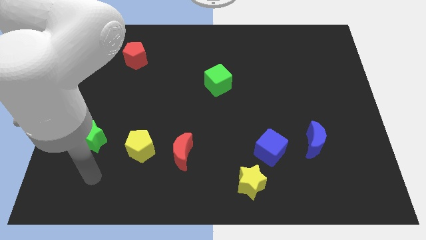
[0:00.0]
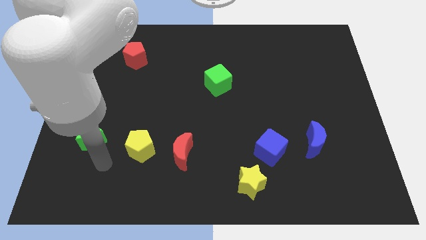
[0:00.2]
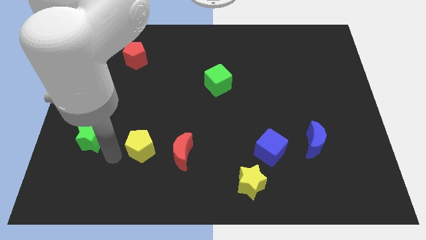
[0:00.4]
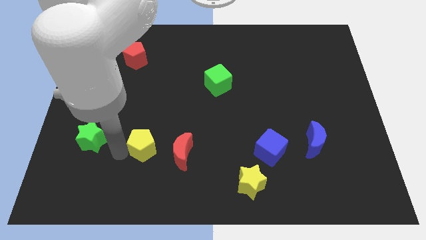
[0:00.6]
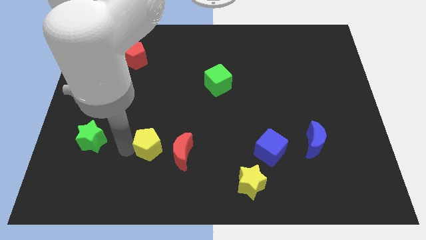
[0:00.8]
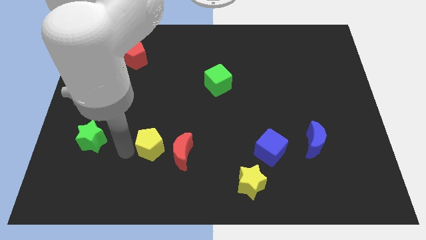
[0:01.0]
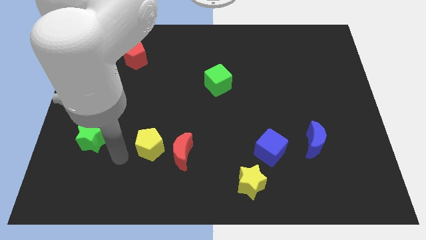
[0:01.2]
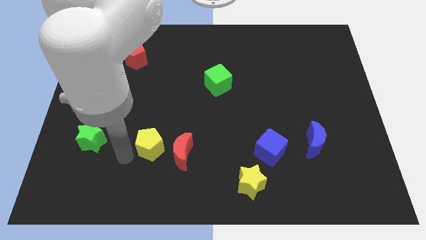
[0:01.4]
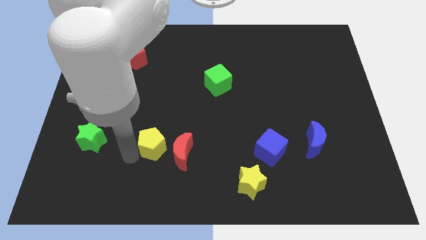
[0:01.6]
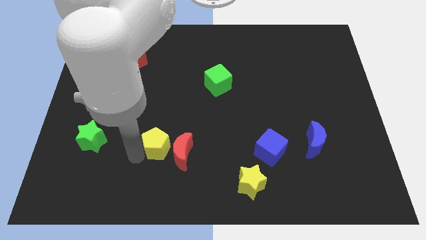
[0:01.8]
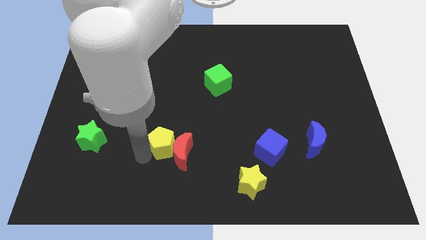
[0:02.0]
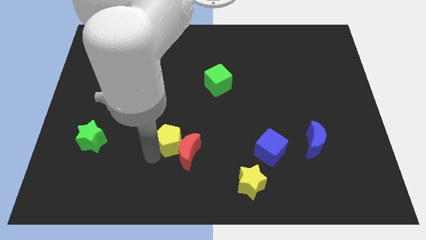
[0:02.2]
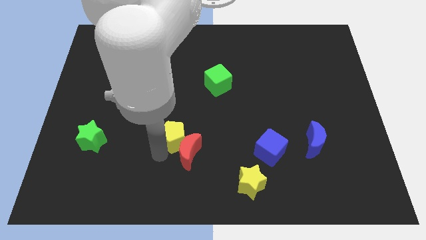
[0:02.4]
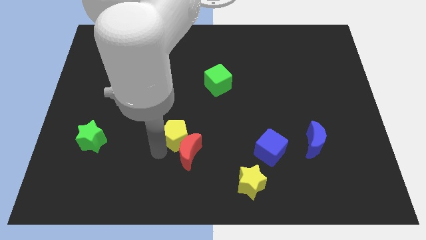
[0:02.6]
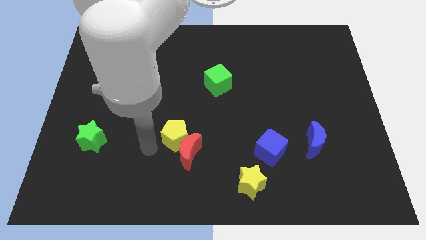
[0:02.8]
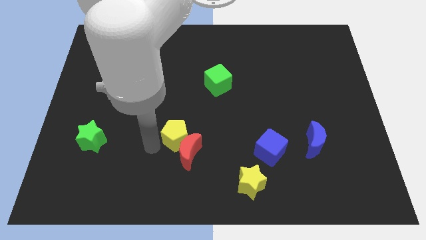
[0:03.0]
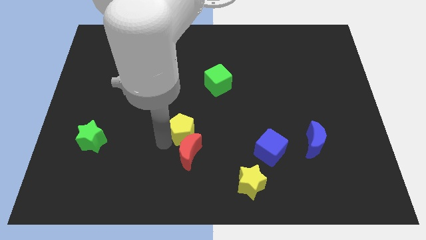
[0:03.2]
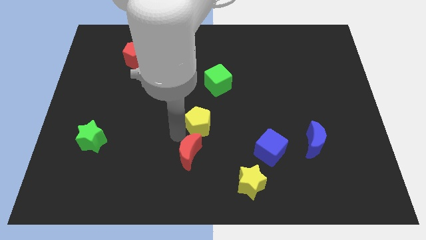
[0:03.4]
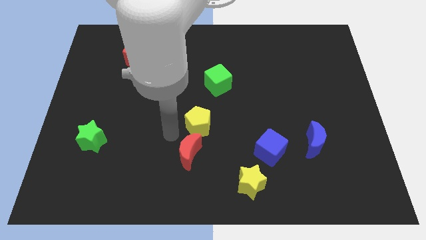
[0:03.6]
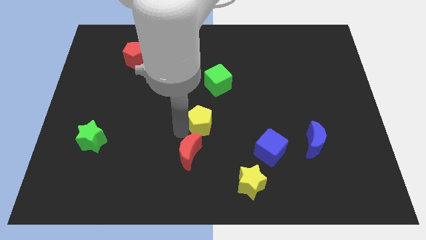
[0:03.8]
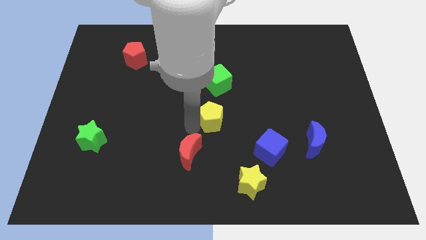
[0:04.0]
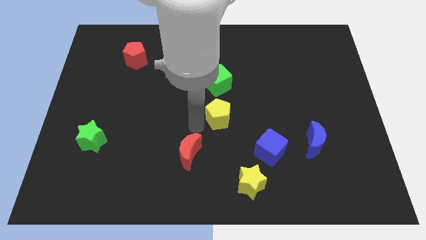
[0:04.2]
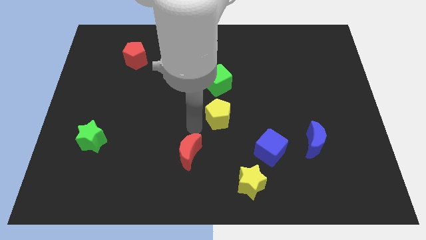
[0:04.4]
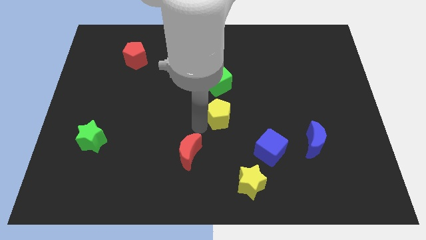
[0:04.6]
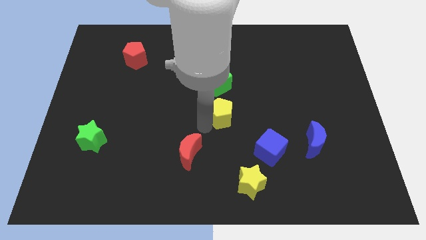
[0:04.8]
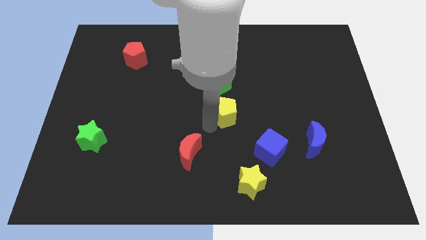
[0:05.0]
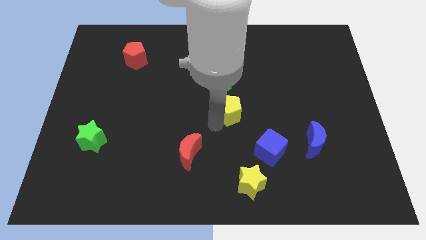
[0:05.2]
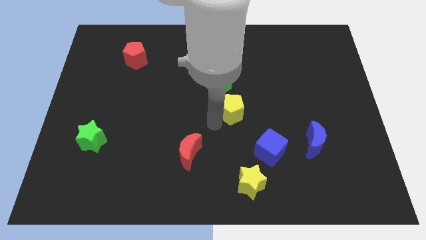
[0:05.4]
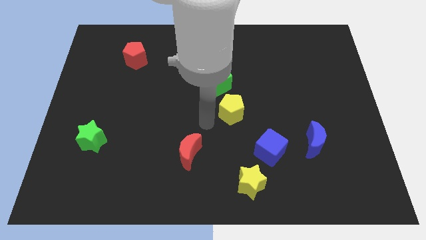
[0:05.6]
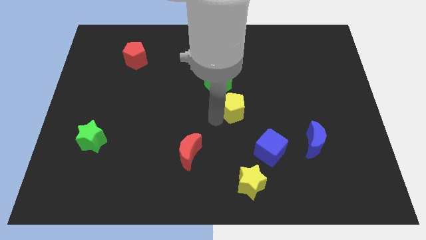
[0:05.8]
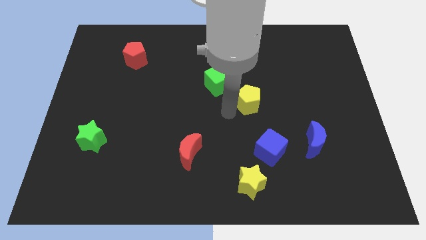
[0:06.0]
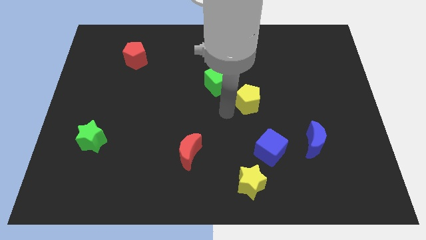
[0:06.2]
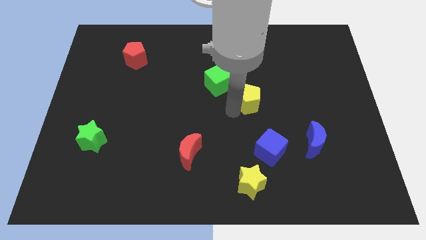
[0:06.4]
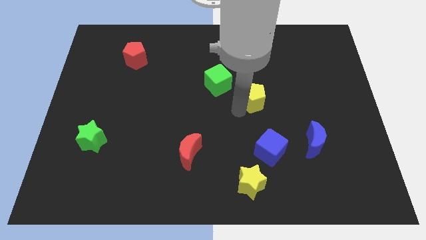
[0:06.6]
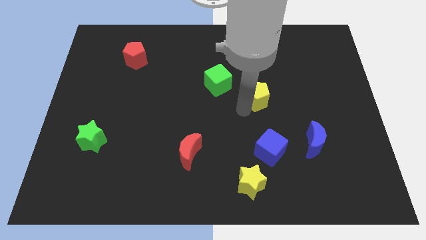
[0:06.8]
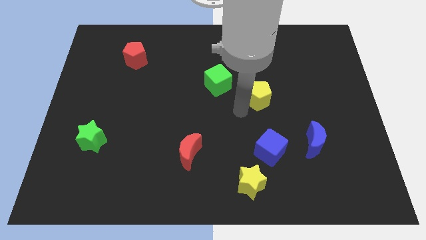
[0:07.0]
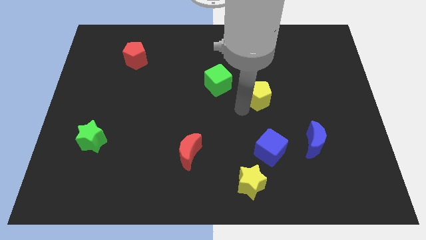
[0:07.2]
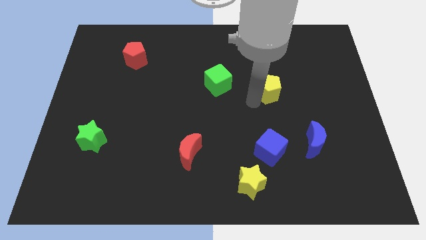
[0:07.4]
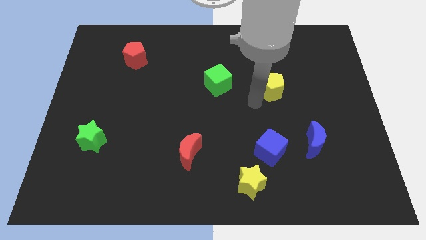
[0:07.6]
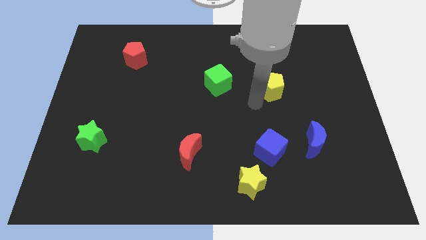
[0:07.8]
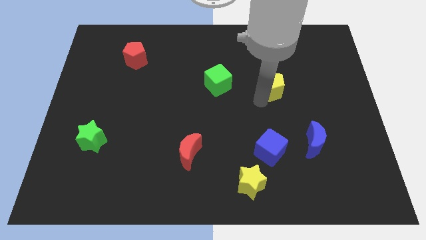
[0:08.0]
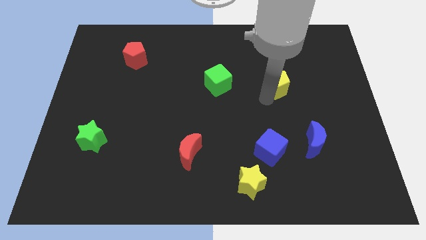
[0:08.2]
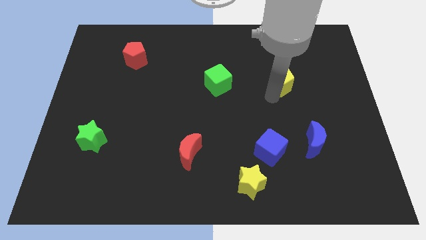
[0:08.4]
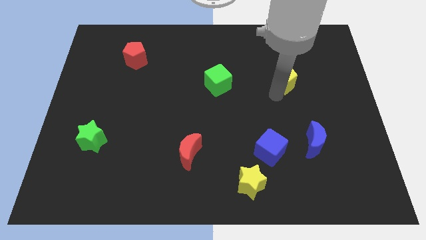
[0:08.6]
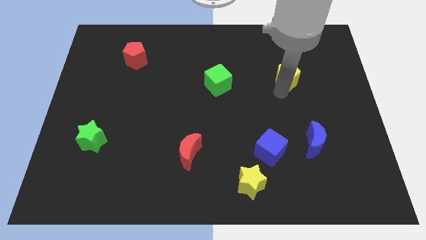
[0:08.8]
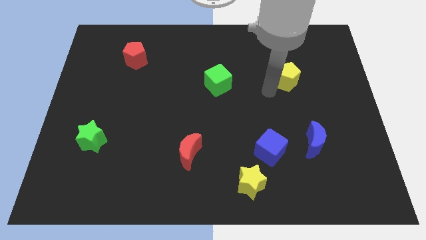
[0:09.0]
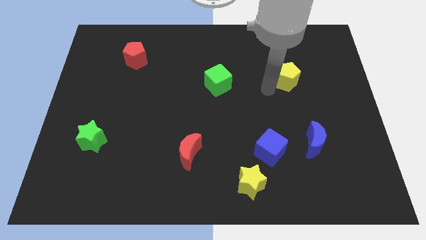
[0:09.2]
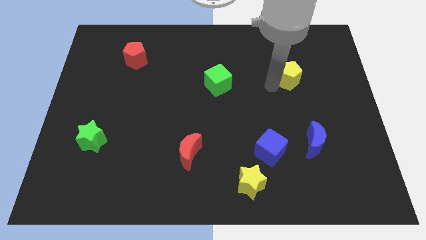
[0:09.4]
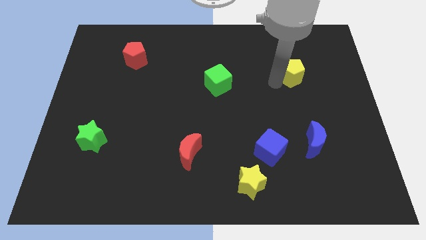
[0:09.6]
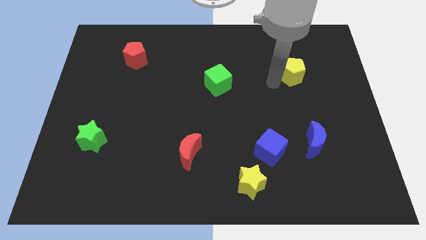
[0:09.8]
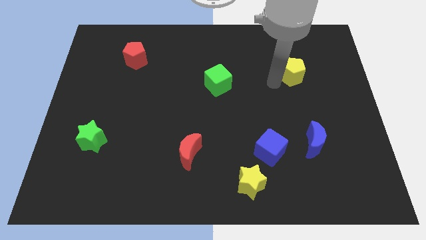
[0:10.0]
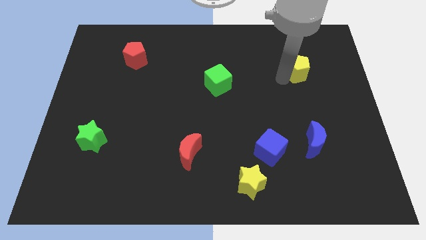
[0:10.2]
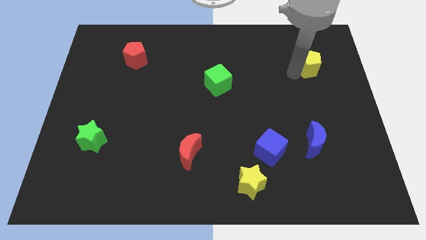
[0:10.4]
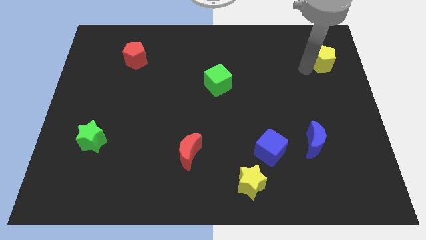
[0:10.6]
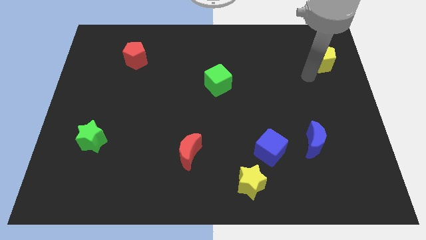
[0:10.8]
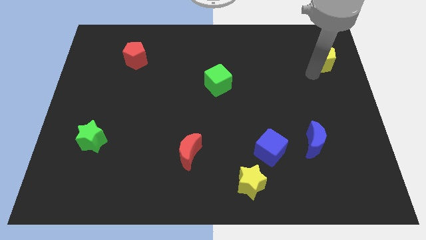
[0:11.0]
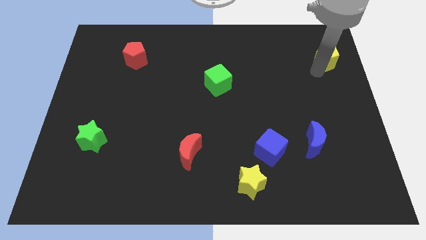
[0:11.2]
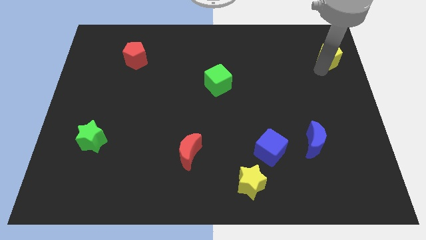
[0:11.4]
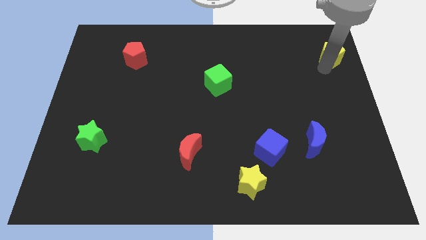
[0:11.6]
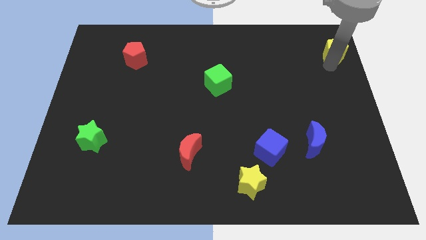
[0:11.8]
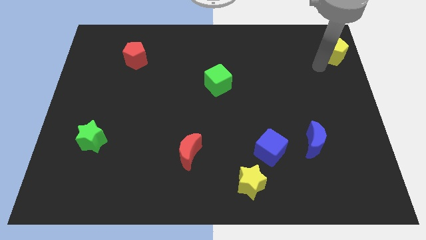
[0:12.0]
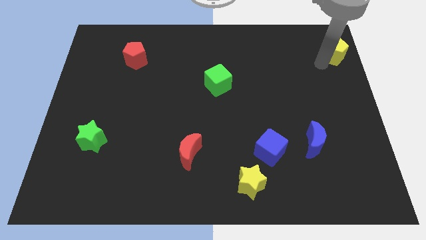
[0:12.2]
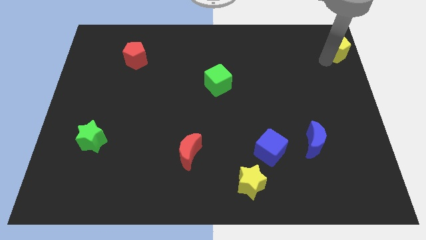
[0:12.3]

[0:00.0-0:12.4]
slide the yellow pentagon to the top right corner
